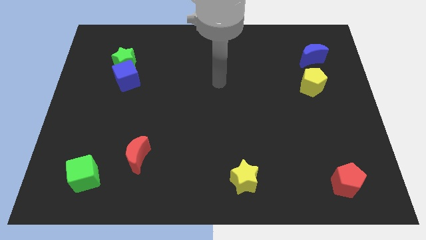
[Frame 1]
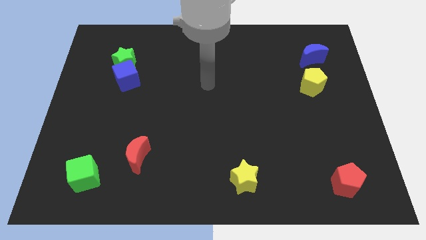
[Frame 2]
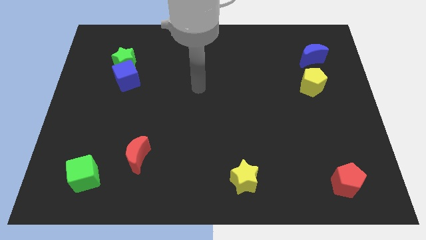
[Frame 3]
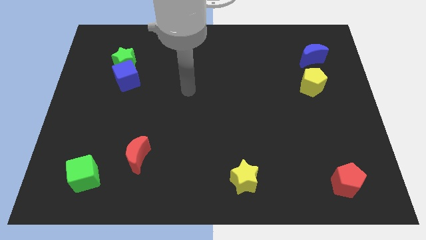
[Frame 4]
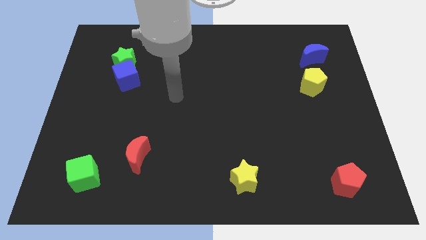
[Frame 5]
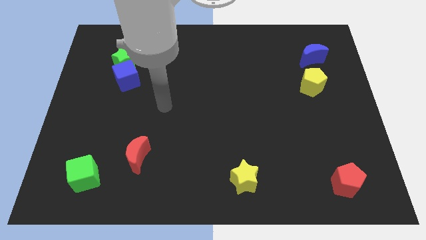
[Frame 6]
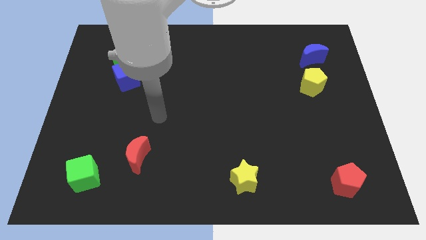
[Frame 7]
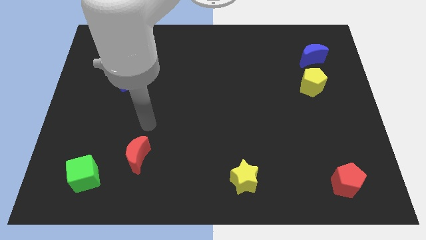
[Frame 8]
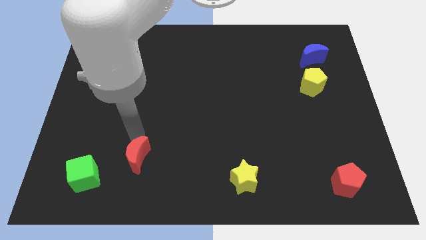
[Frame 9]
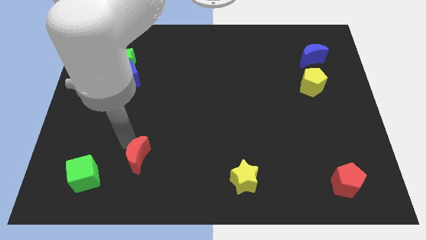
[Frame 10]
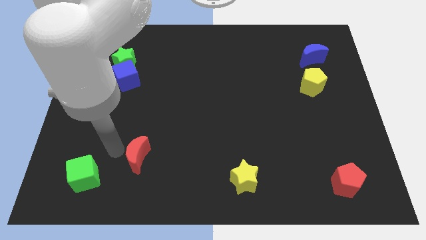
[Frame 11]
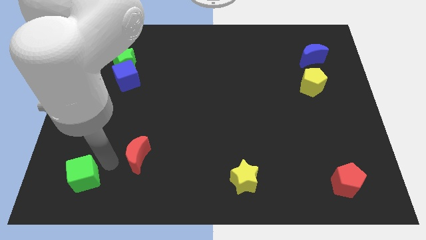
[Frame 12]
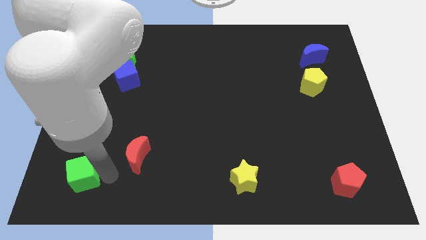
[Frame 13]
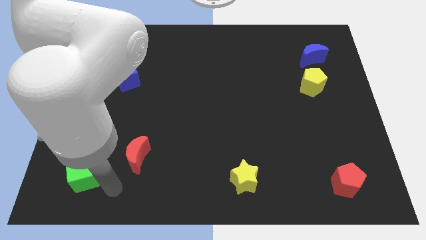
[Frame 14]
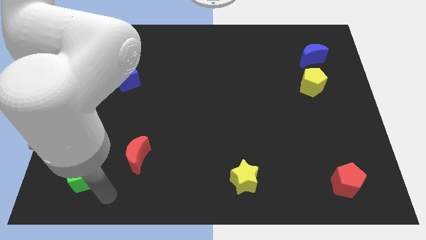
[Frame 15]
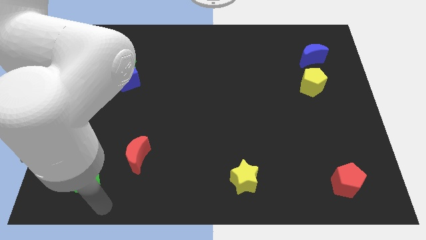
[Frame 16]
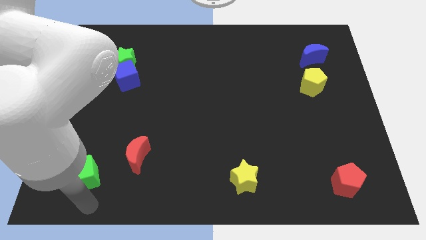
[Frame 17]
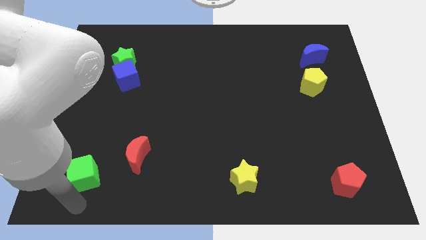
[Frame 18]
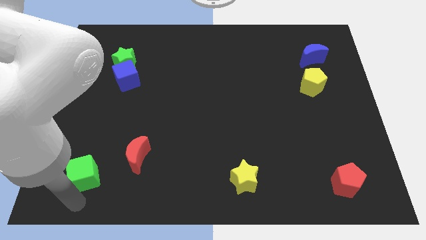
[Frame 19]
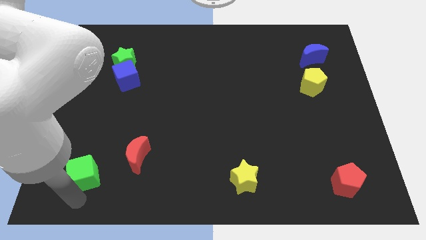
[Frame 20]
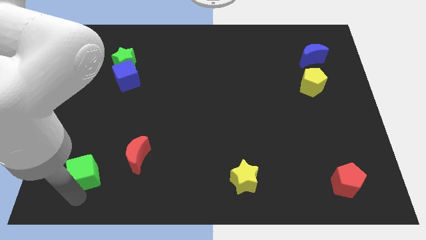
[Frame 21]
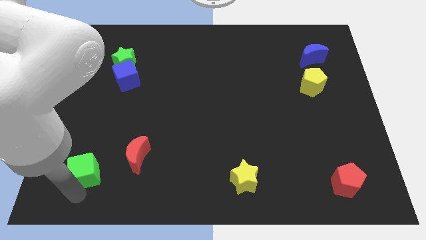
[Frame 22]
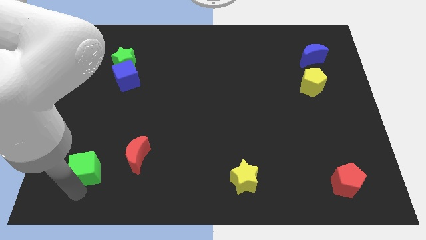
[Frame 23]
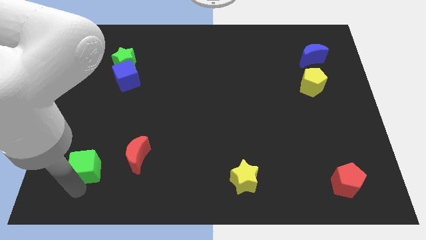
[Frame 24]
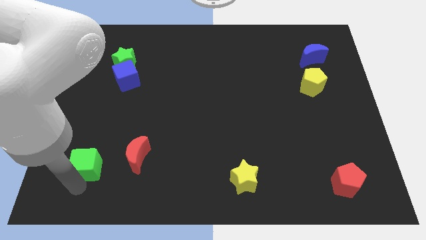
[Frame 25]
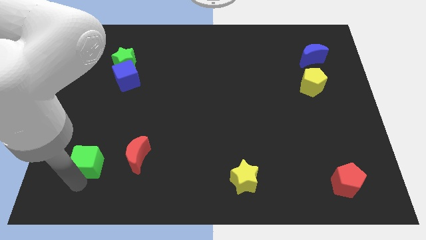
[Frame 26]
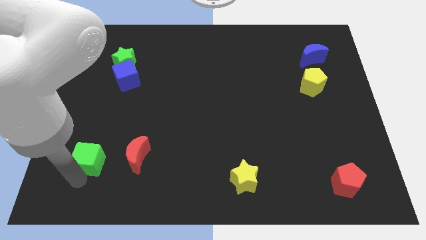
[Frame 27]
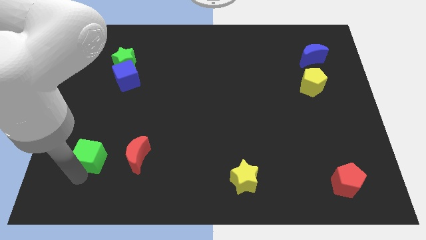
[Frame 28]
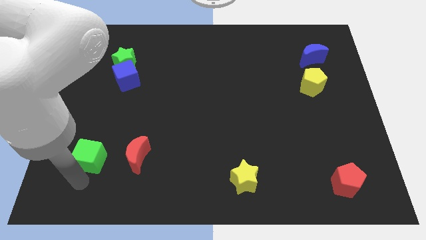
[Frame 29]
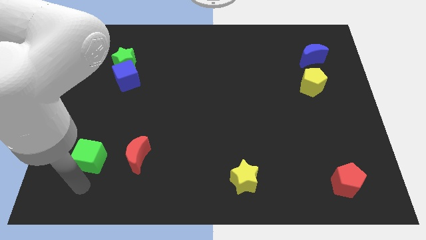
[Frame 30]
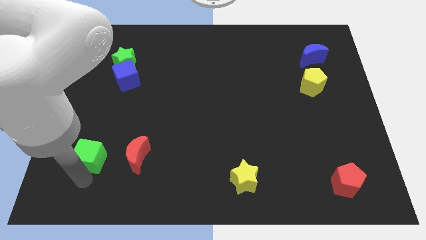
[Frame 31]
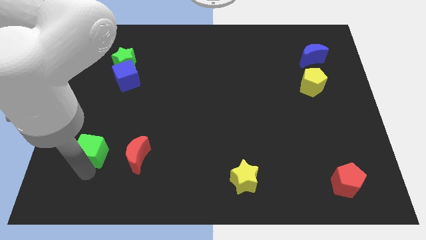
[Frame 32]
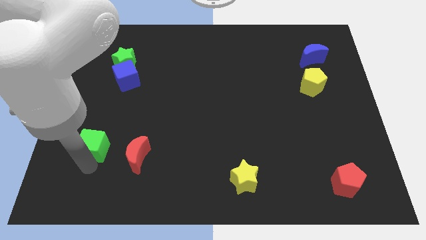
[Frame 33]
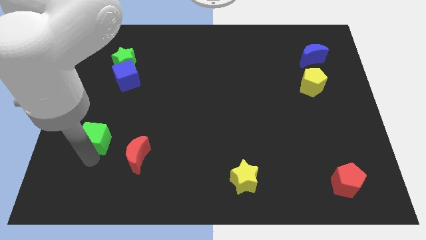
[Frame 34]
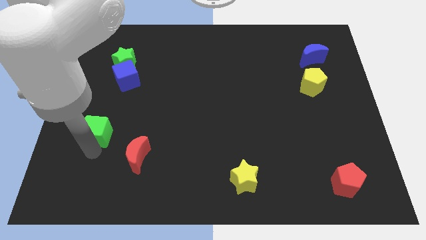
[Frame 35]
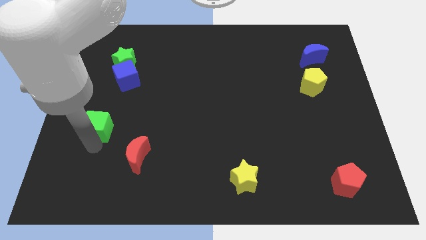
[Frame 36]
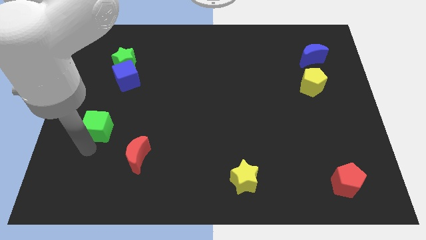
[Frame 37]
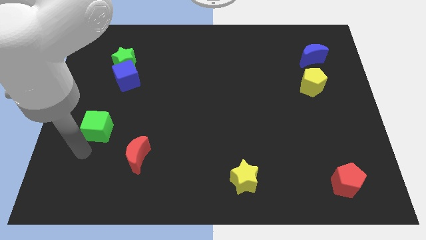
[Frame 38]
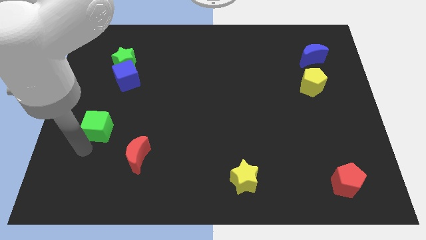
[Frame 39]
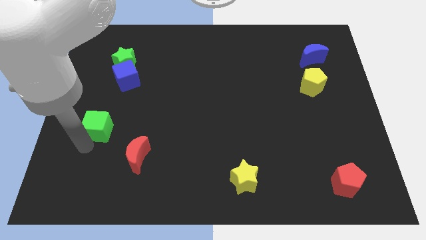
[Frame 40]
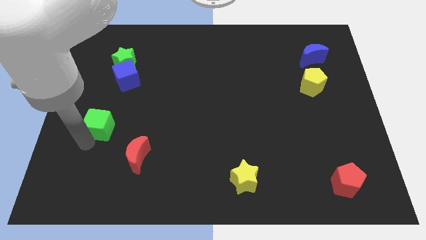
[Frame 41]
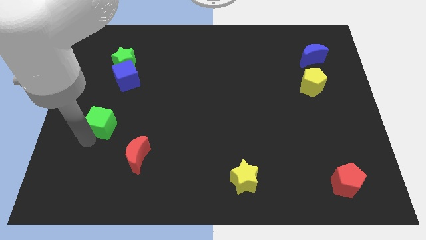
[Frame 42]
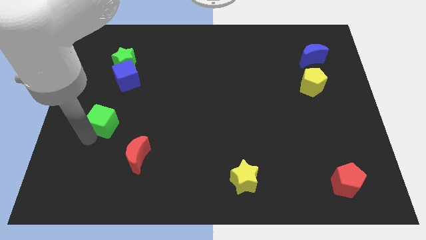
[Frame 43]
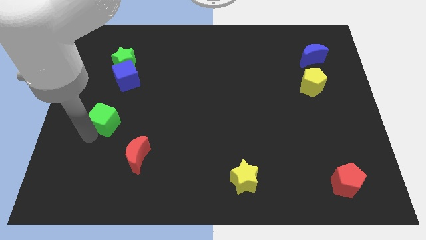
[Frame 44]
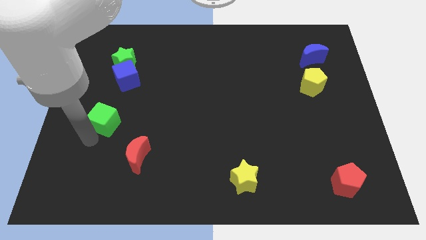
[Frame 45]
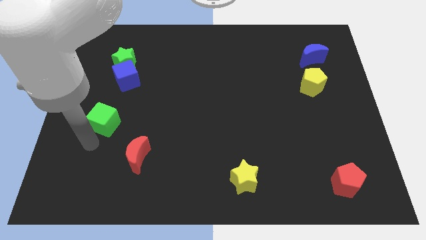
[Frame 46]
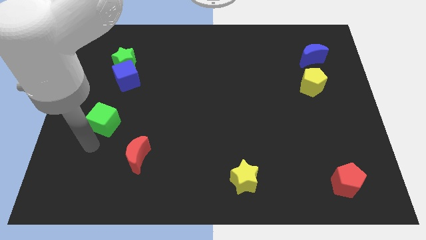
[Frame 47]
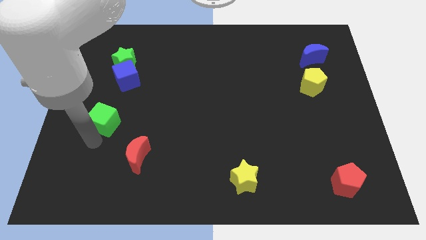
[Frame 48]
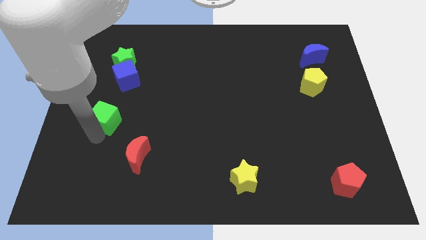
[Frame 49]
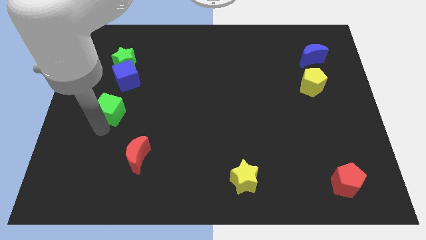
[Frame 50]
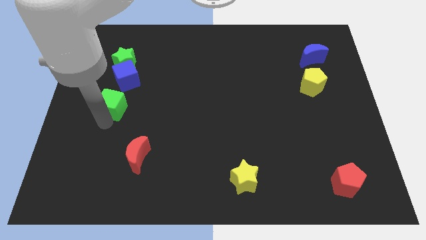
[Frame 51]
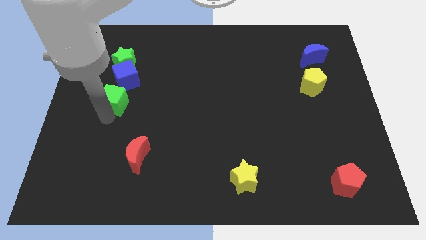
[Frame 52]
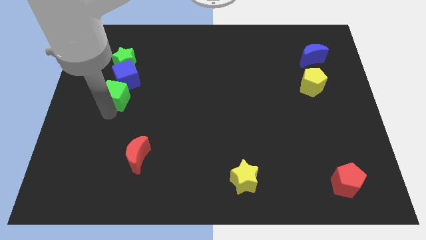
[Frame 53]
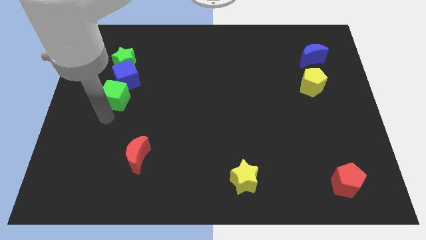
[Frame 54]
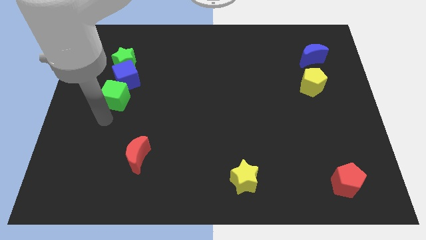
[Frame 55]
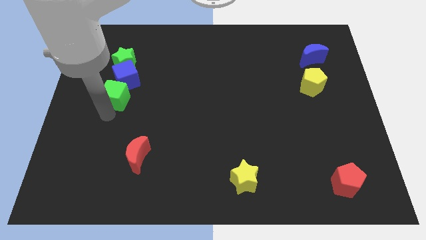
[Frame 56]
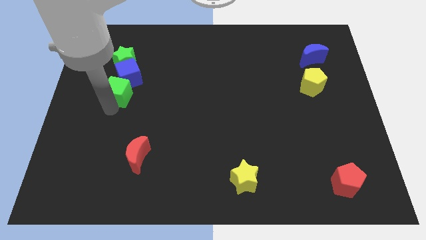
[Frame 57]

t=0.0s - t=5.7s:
put the green cube next to the blue cube

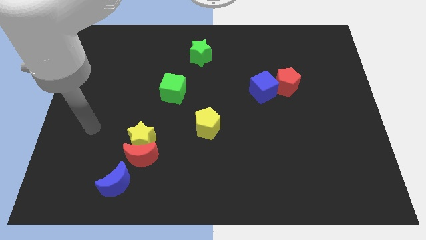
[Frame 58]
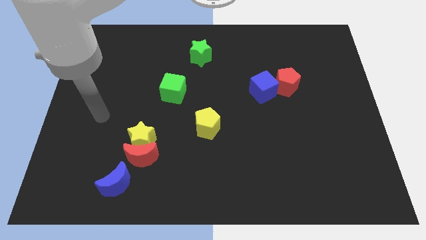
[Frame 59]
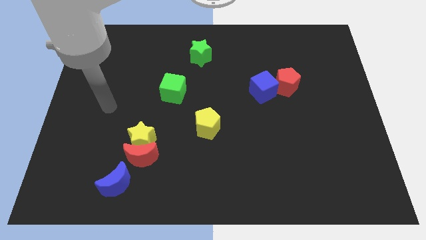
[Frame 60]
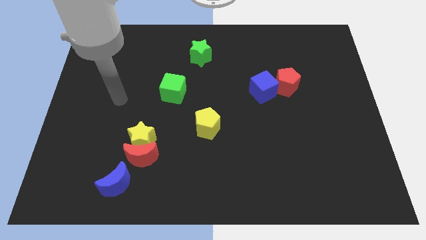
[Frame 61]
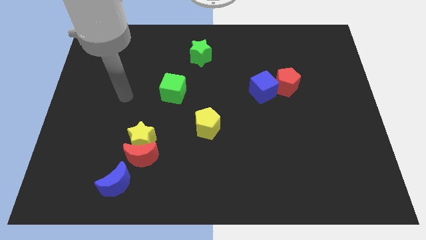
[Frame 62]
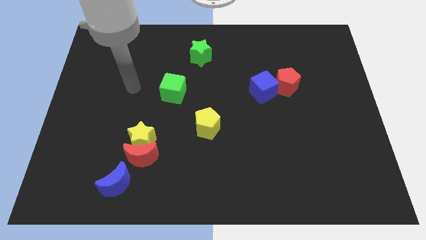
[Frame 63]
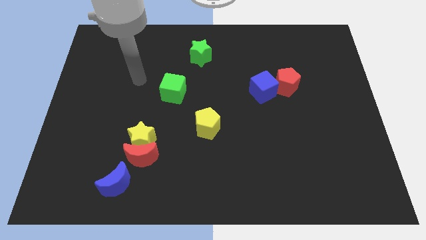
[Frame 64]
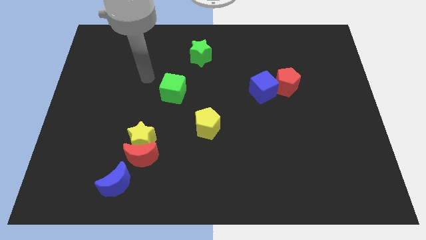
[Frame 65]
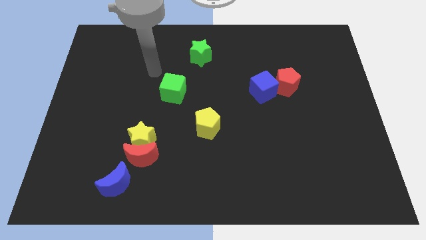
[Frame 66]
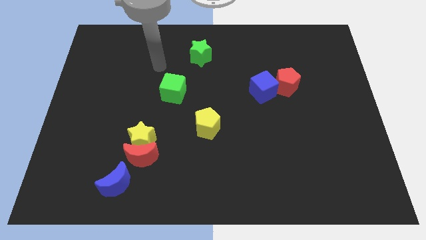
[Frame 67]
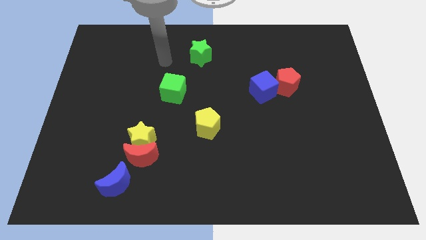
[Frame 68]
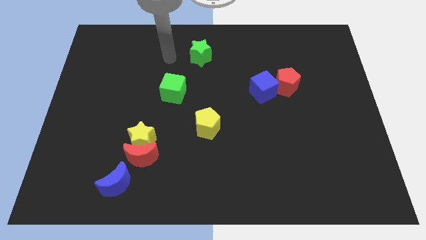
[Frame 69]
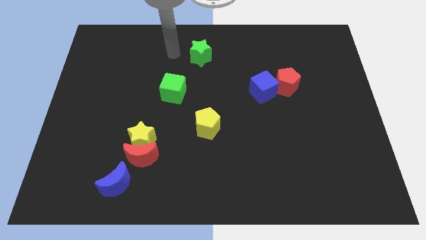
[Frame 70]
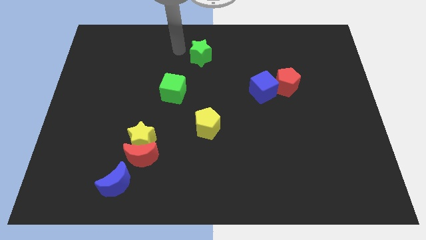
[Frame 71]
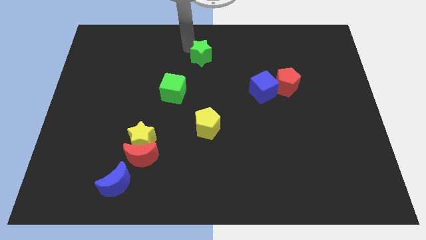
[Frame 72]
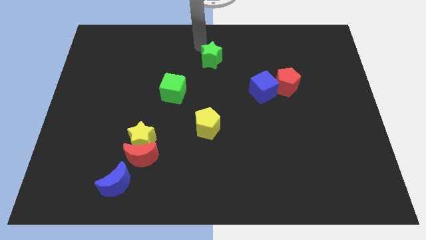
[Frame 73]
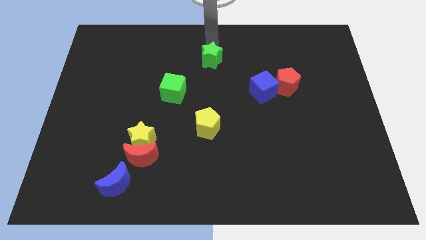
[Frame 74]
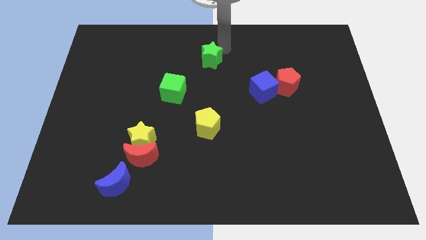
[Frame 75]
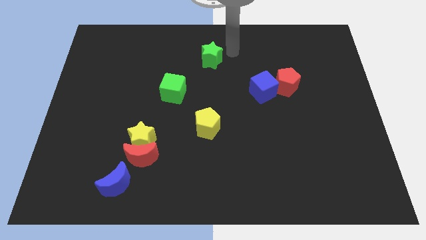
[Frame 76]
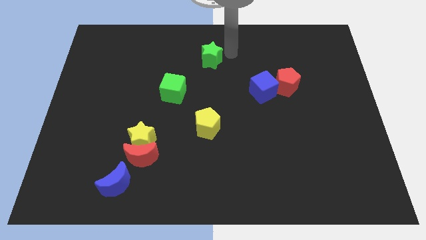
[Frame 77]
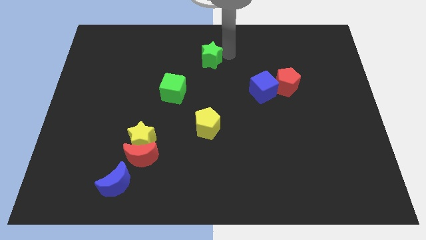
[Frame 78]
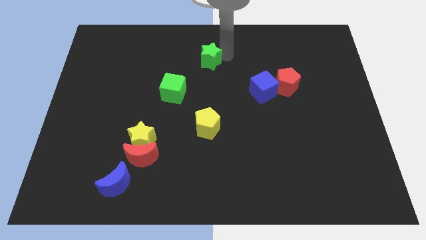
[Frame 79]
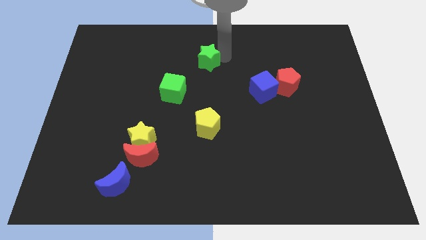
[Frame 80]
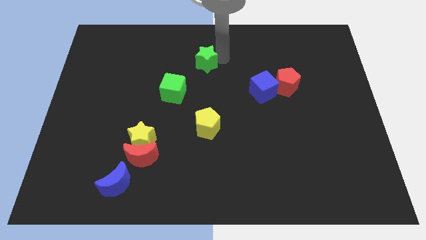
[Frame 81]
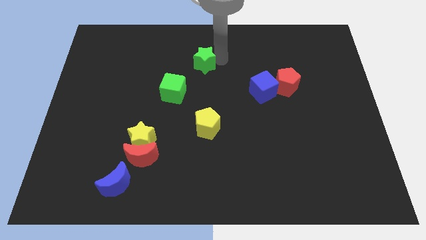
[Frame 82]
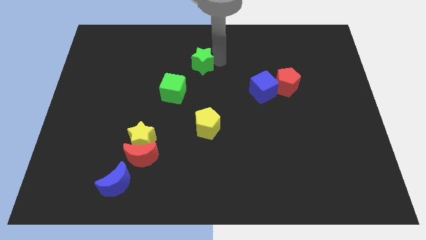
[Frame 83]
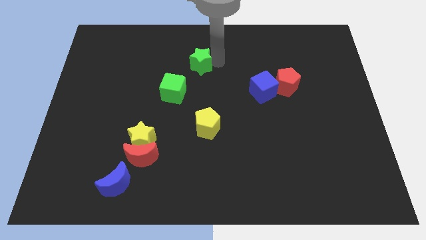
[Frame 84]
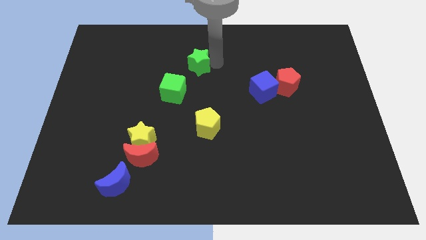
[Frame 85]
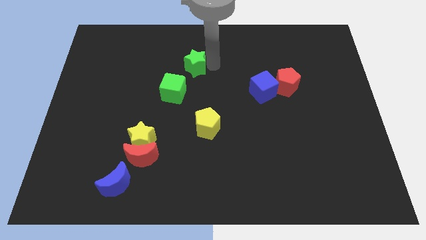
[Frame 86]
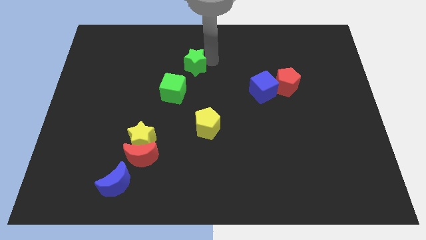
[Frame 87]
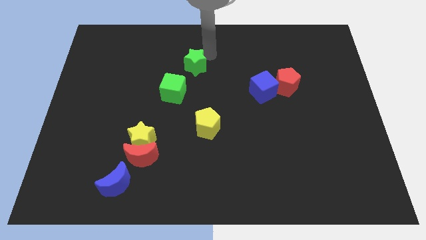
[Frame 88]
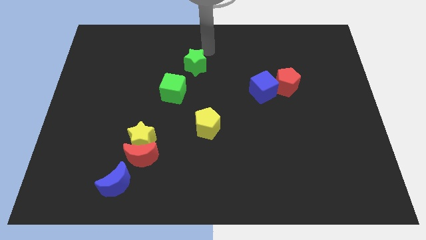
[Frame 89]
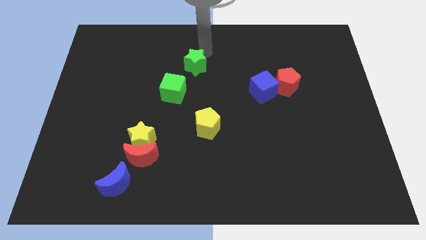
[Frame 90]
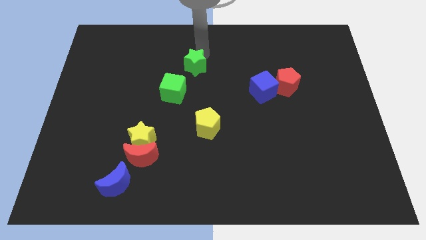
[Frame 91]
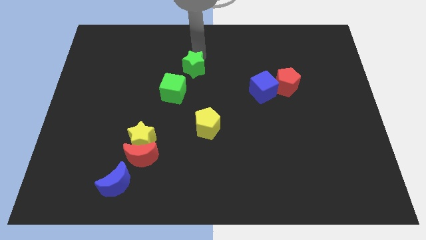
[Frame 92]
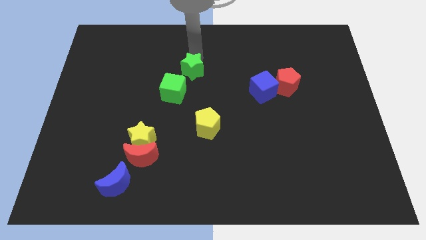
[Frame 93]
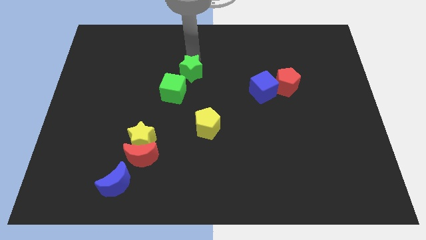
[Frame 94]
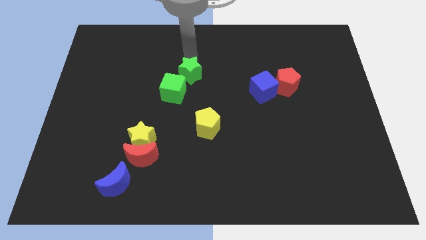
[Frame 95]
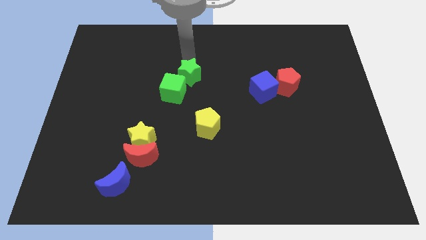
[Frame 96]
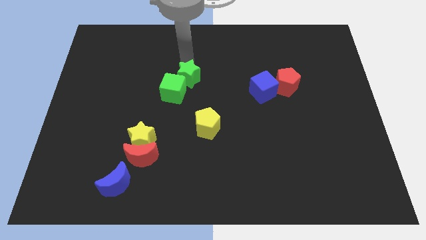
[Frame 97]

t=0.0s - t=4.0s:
slide the green star close to the green cube
